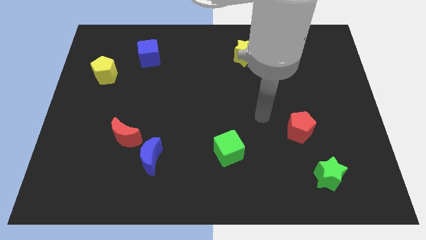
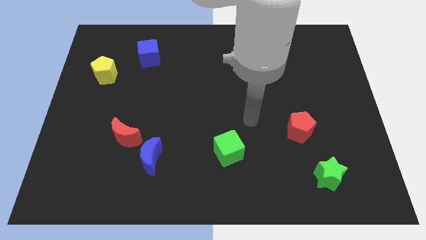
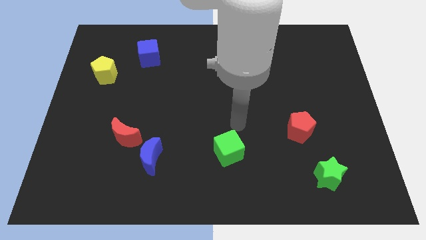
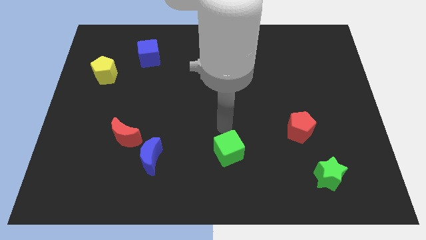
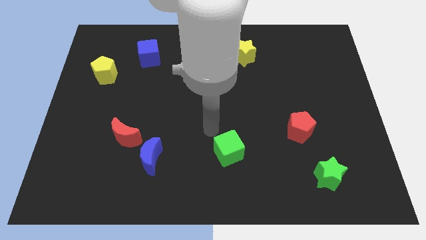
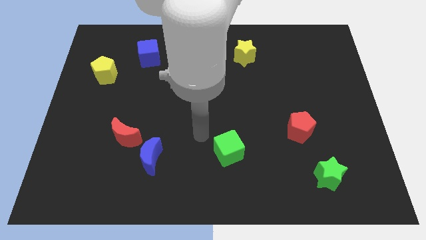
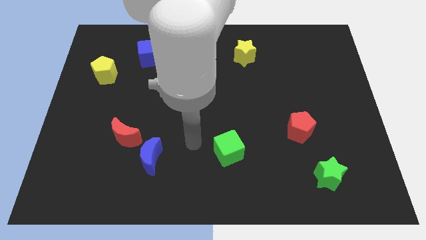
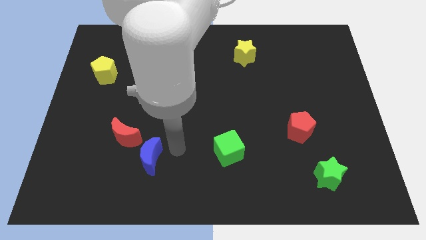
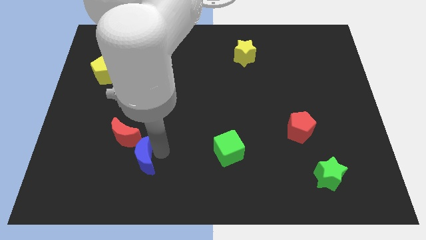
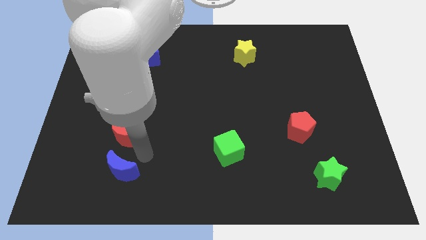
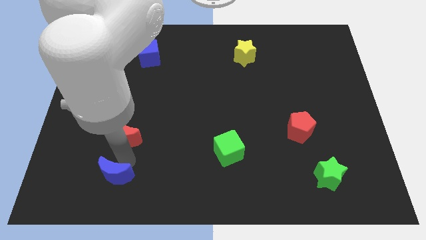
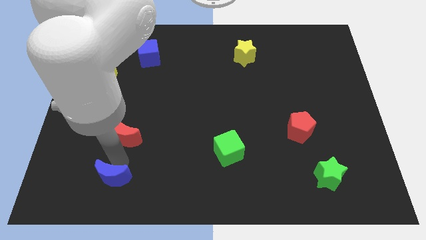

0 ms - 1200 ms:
pull the red moon apart from the blue moon

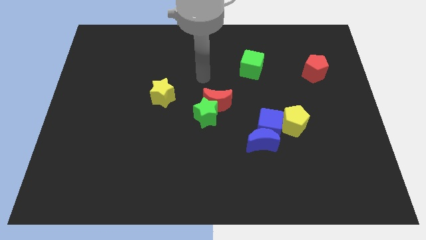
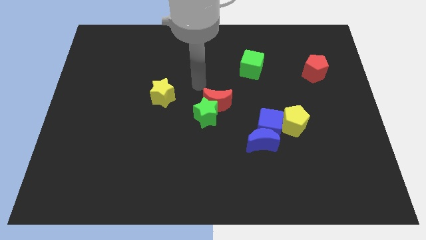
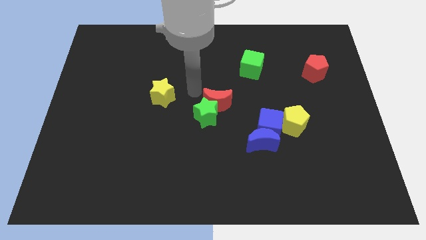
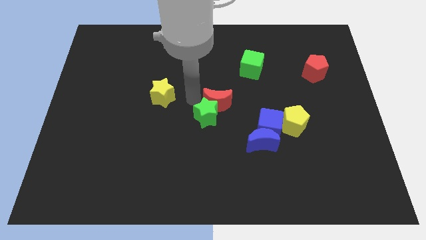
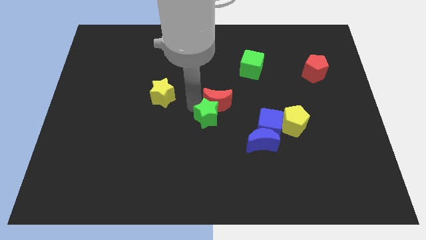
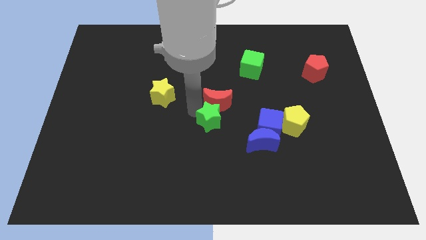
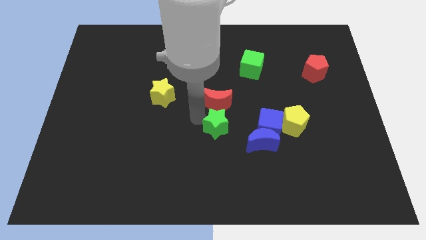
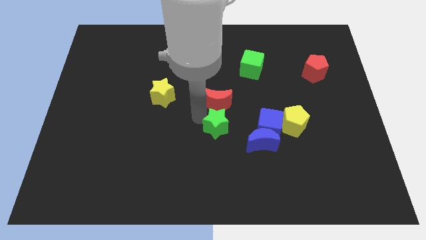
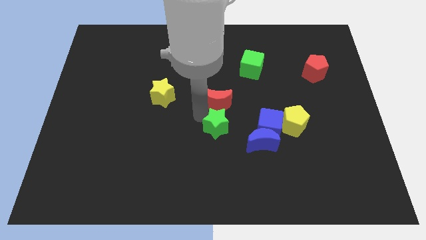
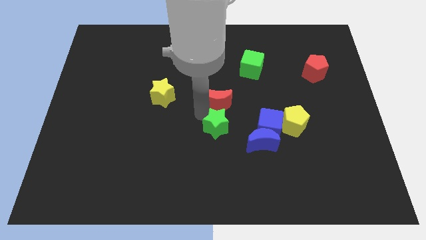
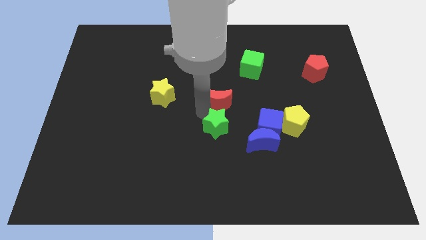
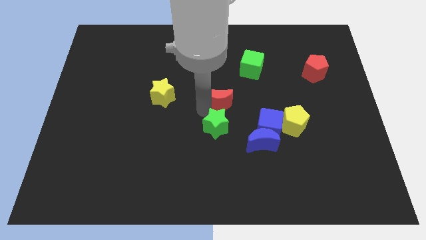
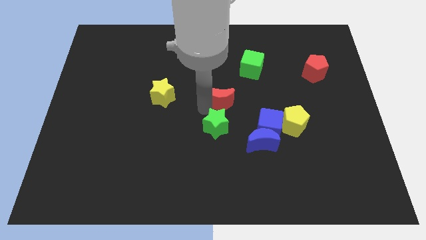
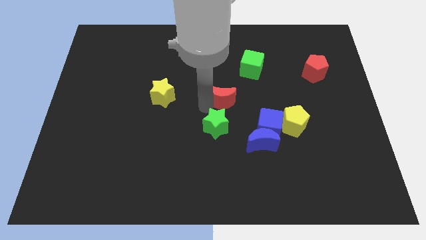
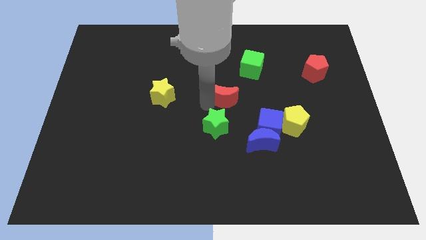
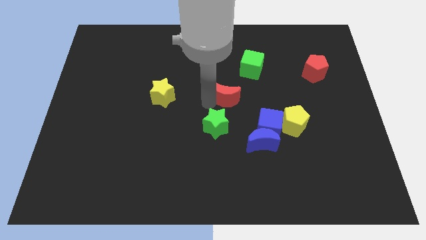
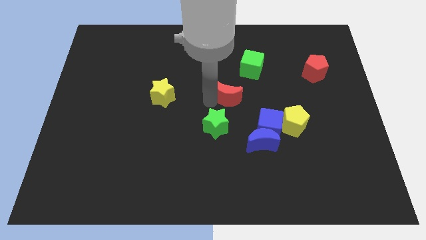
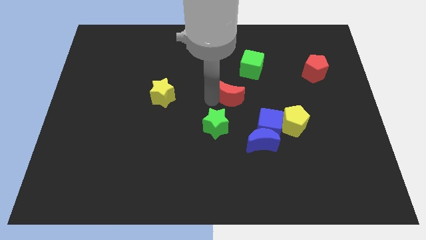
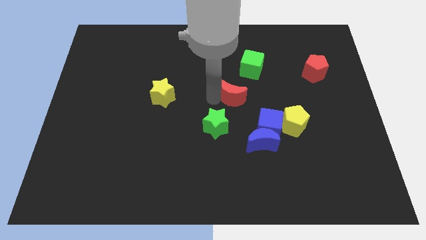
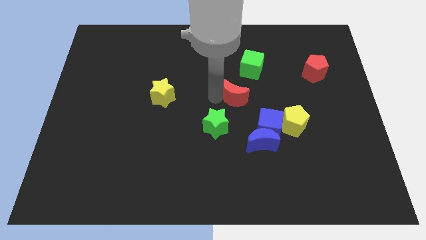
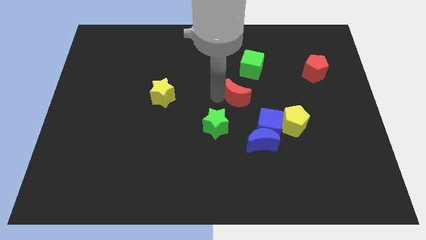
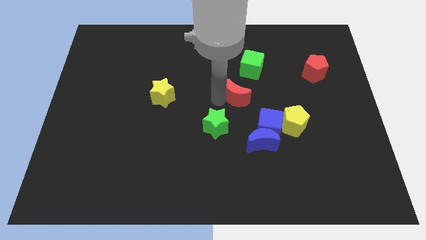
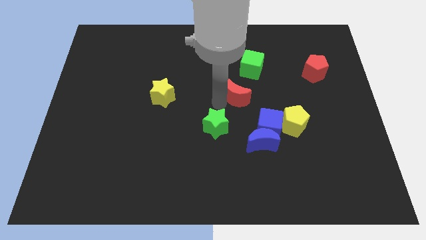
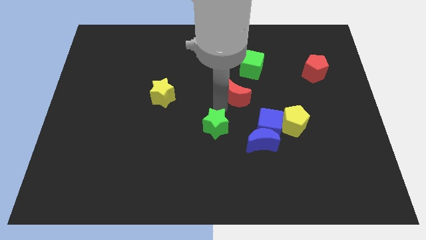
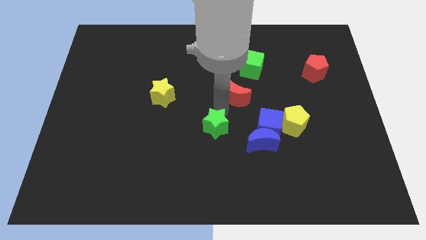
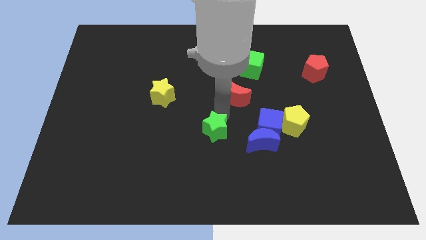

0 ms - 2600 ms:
pull the red moon apart from the green star

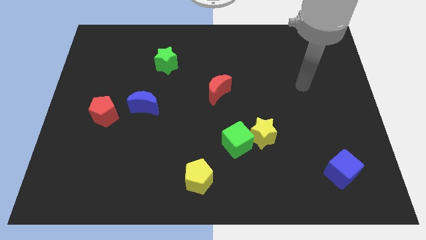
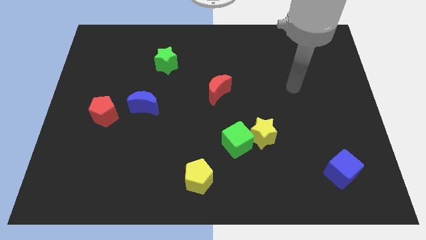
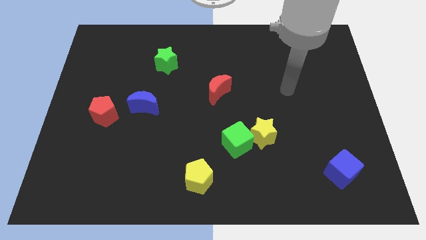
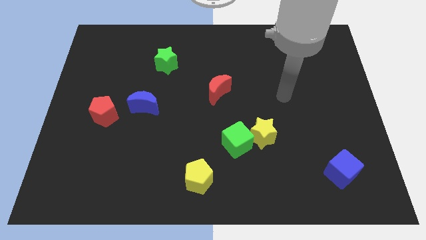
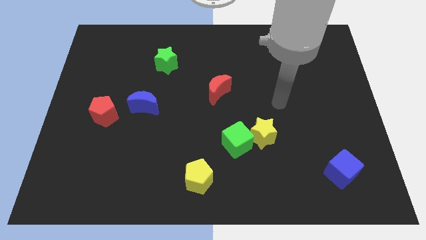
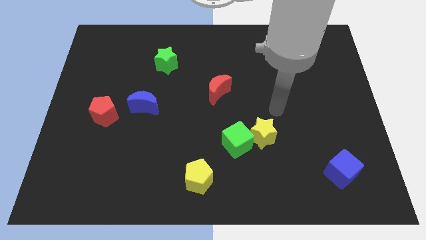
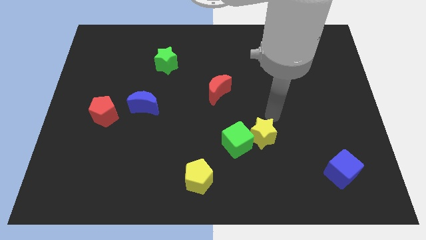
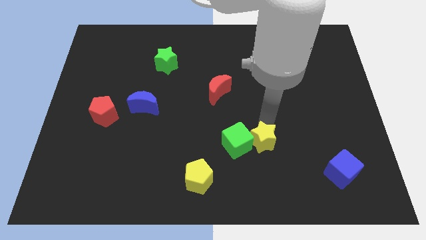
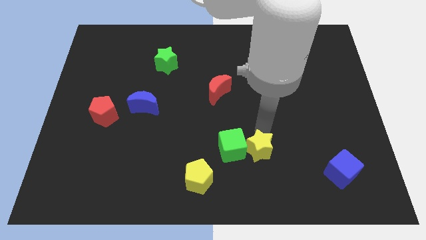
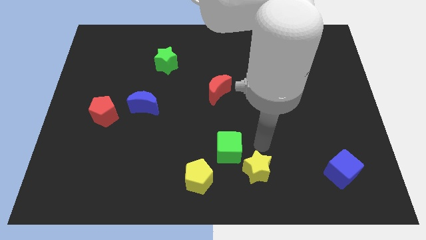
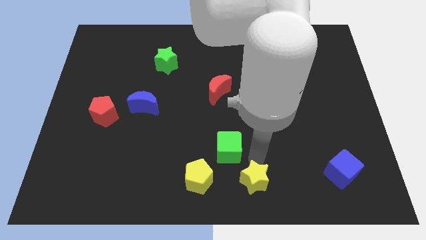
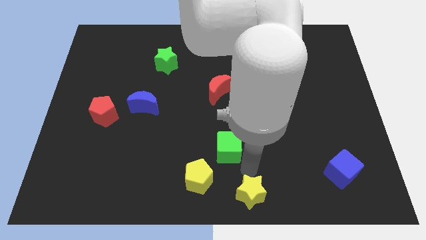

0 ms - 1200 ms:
move the green cube away from the yellow star

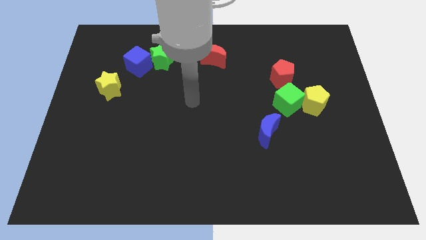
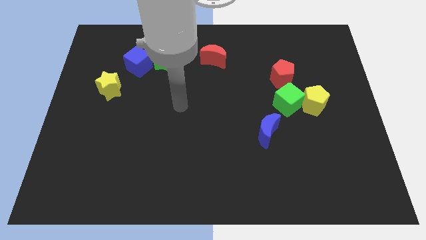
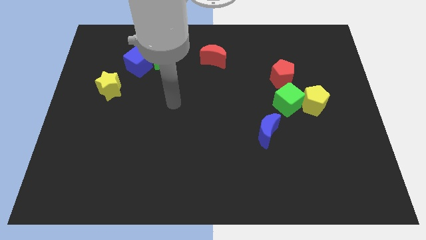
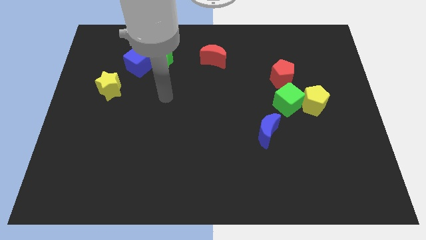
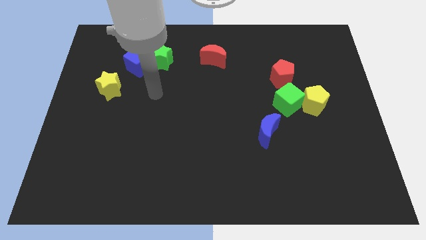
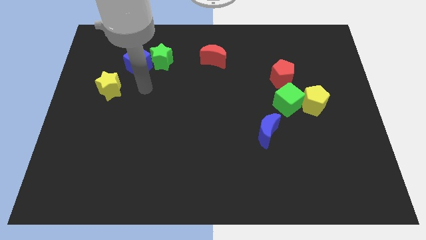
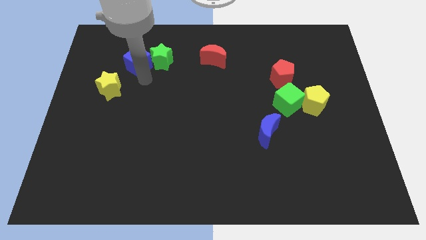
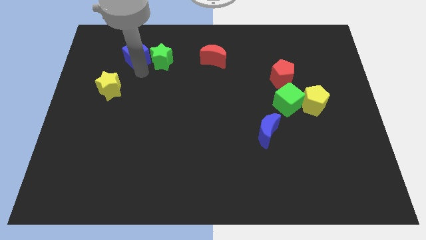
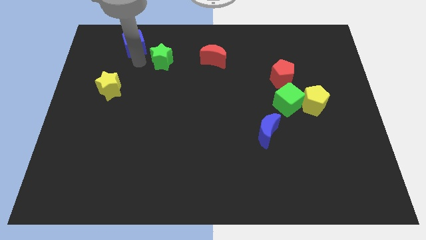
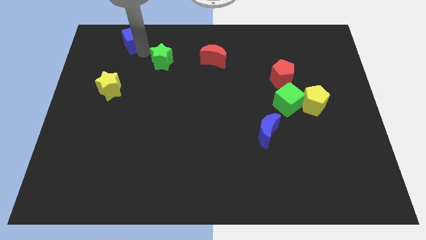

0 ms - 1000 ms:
separate the green star from the blue cube

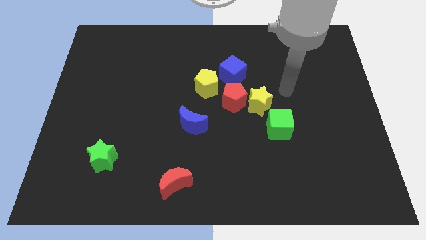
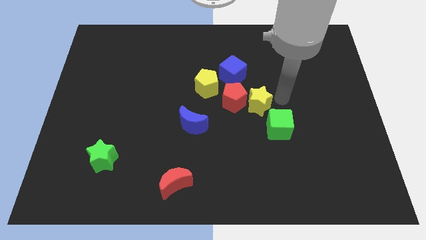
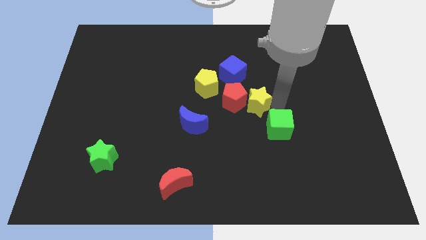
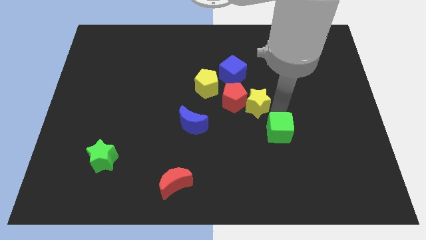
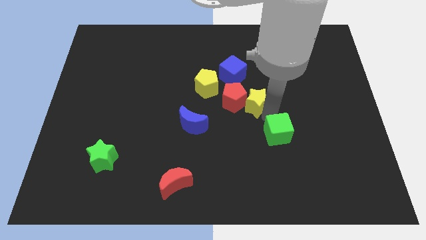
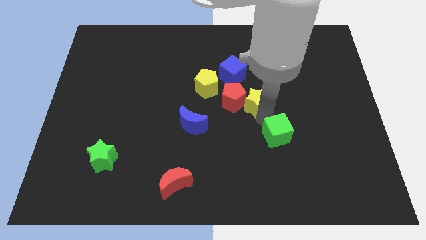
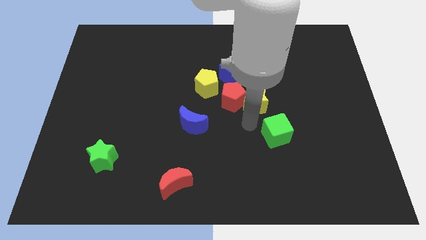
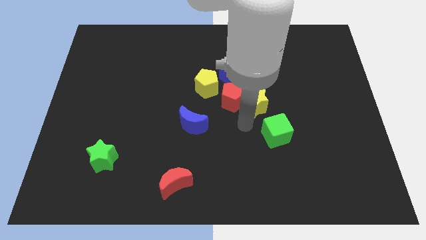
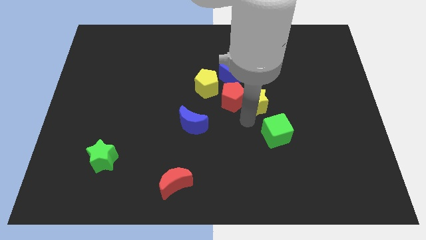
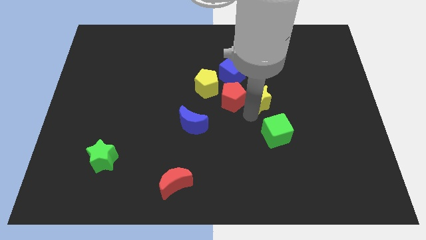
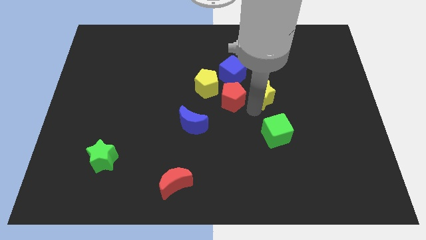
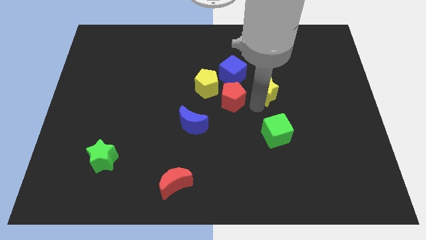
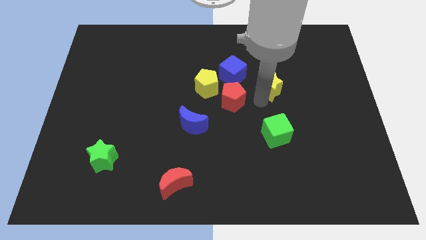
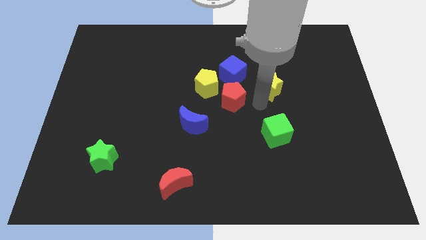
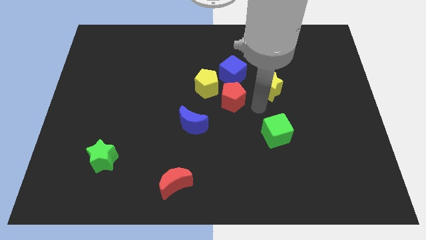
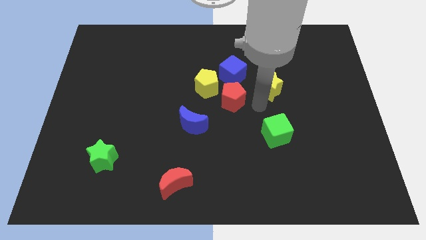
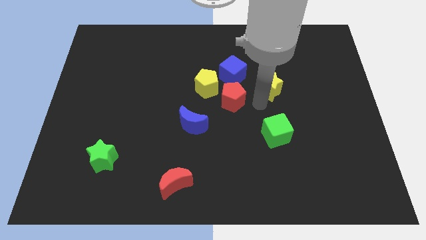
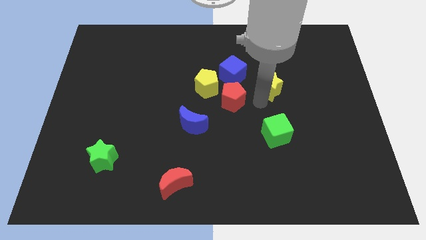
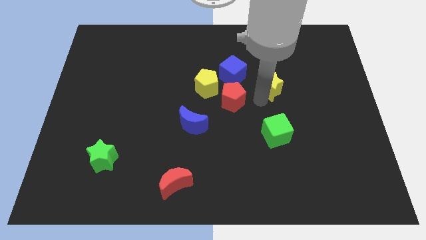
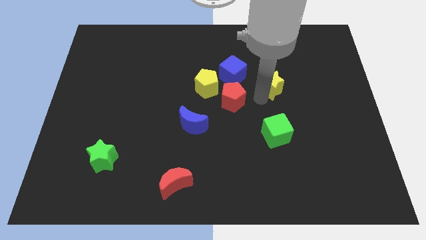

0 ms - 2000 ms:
pull the yellow star apart from the red pentagon and green cube

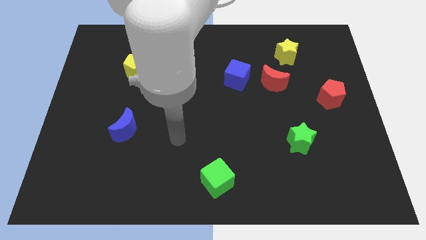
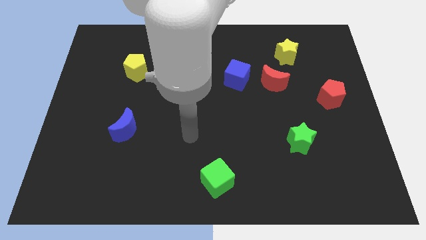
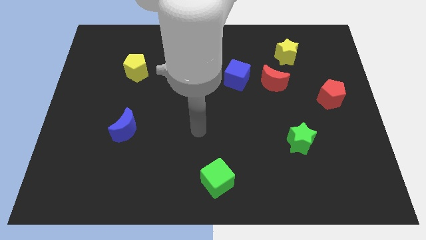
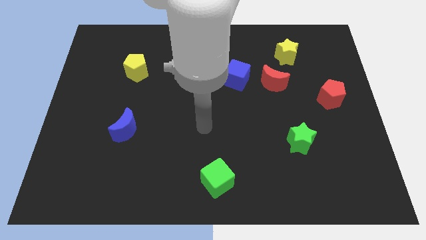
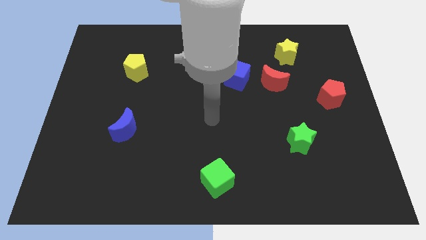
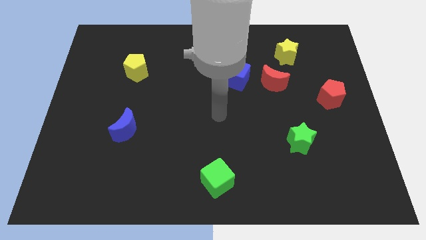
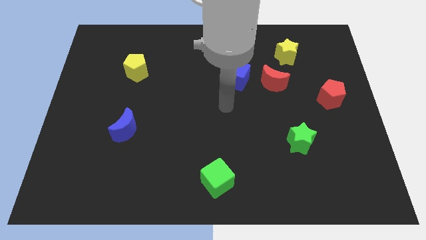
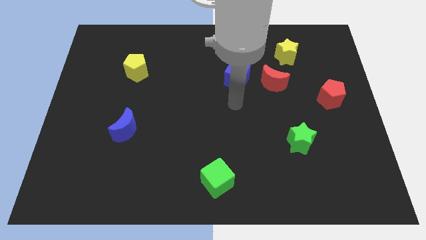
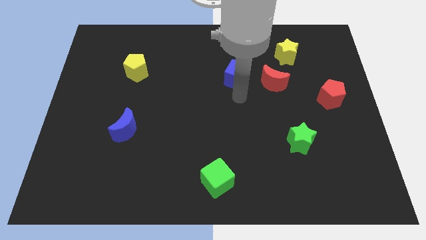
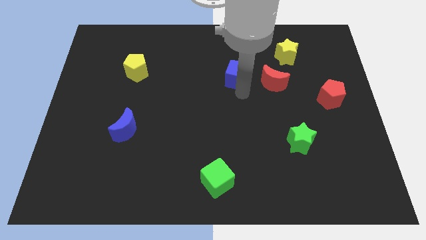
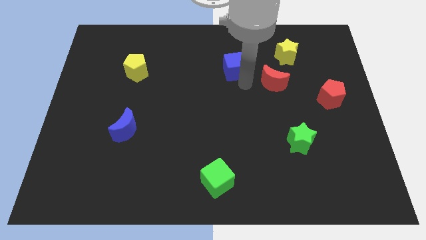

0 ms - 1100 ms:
separate the red moon from the blue cube

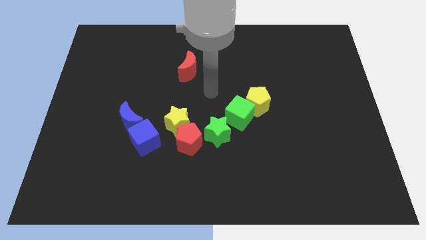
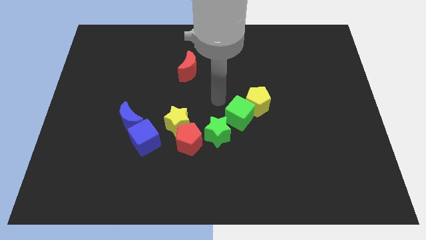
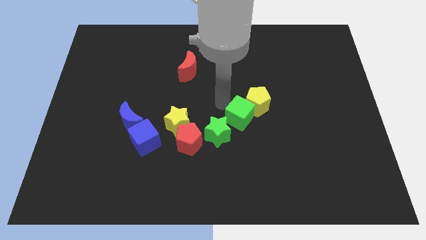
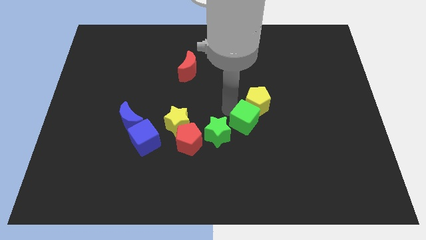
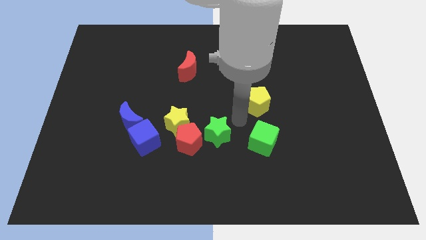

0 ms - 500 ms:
move the yellow pentagon away from the green cube
